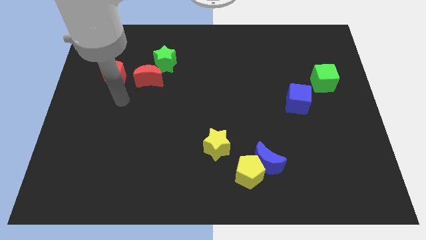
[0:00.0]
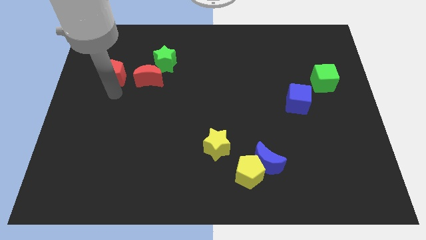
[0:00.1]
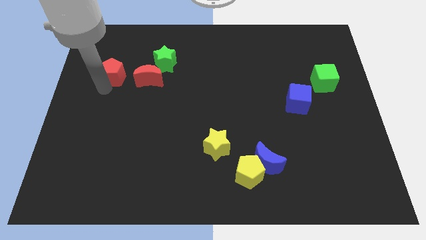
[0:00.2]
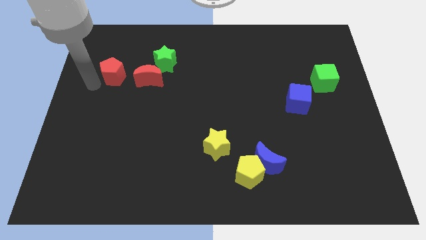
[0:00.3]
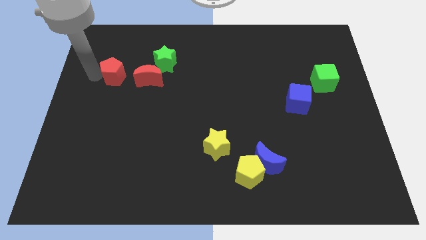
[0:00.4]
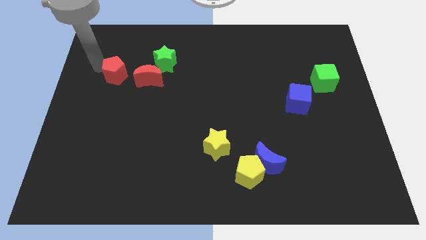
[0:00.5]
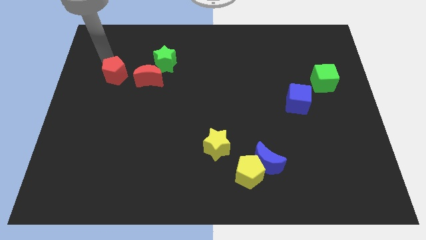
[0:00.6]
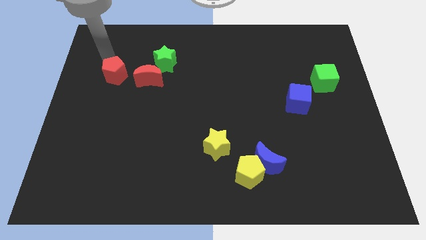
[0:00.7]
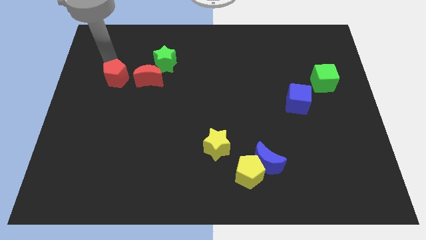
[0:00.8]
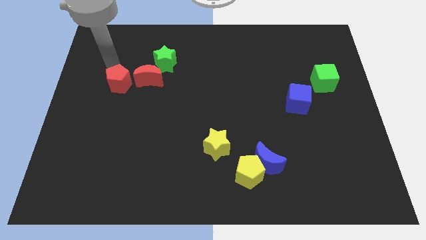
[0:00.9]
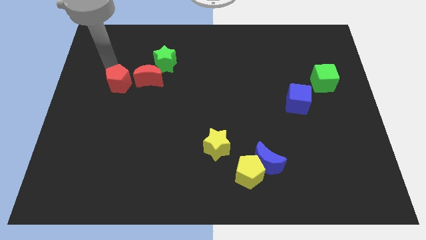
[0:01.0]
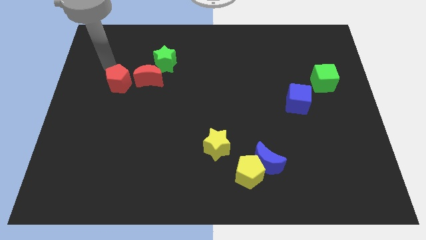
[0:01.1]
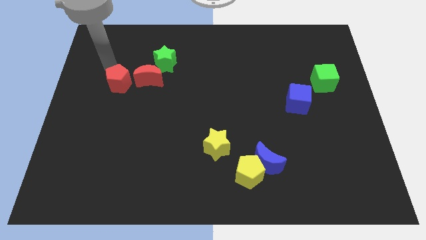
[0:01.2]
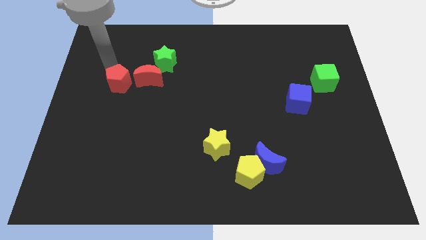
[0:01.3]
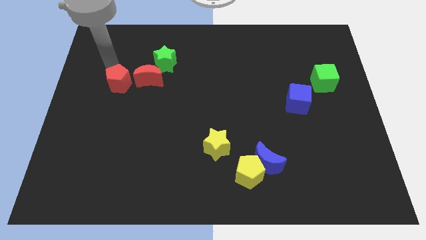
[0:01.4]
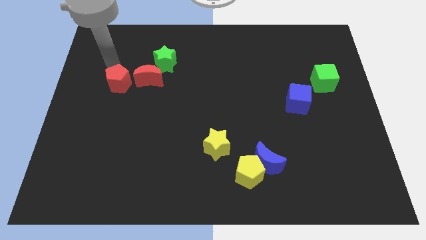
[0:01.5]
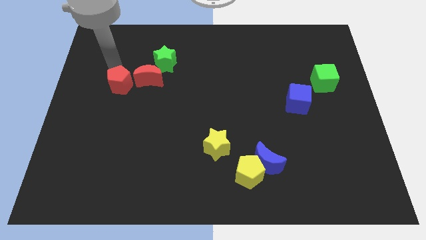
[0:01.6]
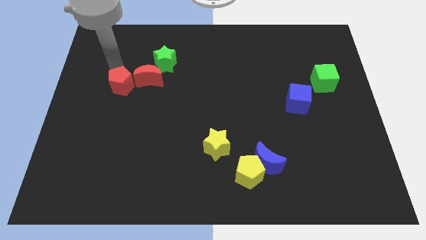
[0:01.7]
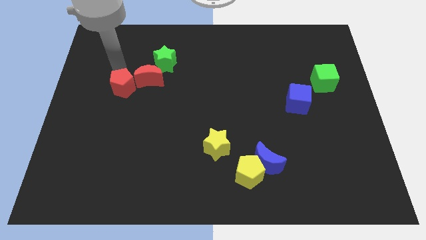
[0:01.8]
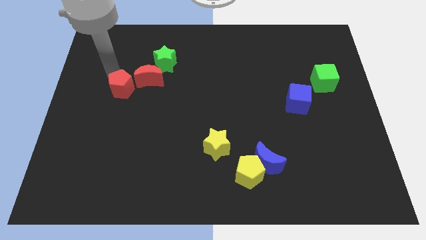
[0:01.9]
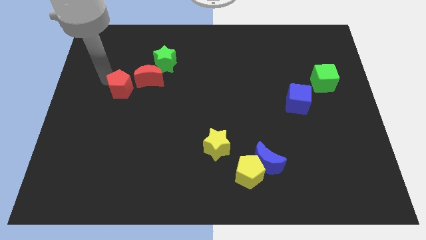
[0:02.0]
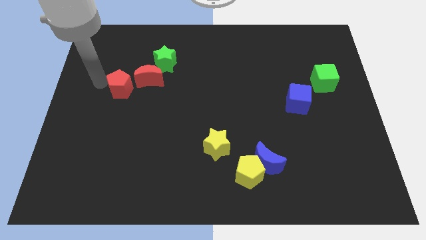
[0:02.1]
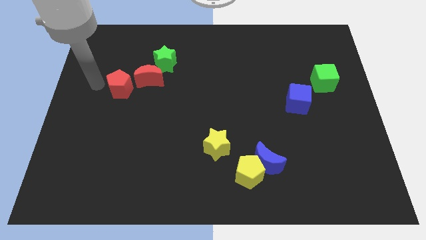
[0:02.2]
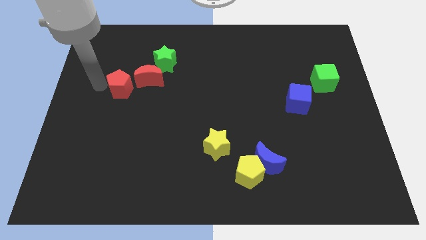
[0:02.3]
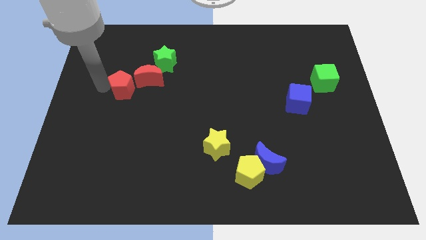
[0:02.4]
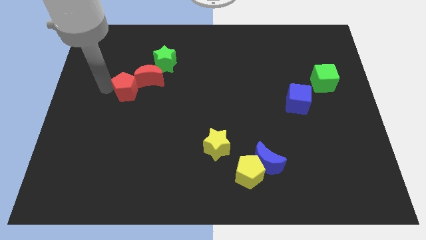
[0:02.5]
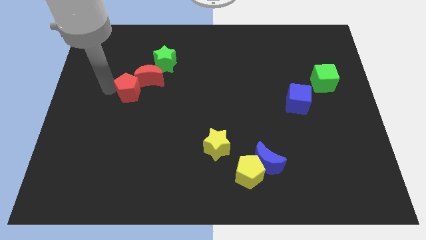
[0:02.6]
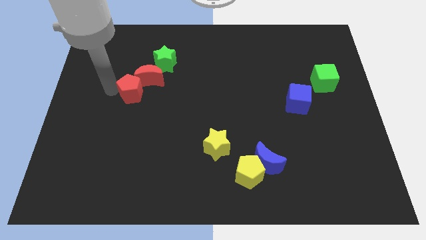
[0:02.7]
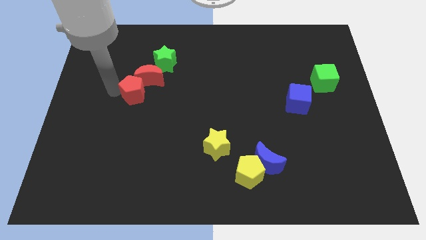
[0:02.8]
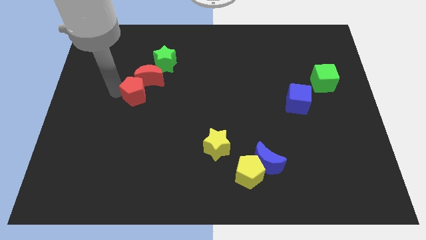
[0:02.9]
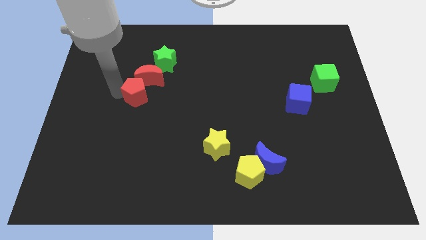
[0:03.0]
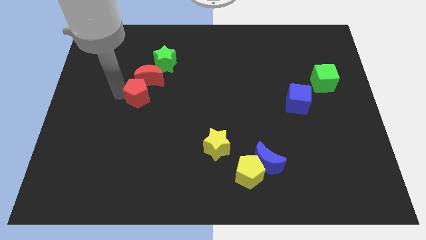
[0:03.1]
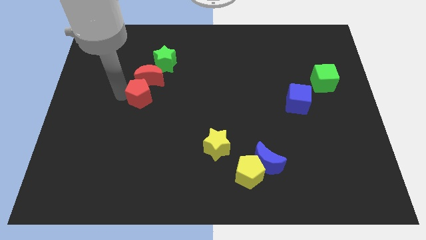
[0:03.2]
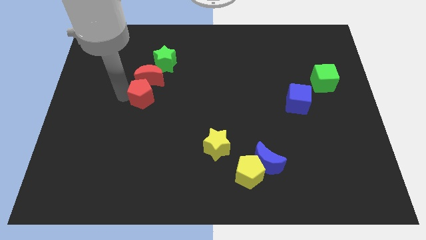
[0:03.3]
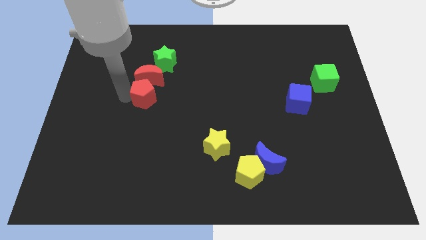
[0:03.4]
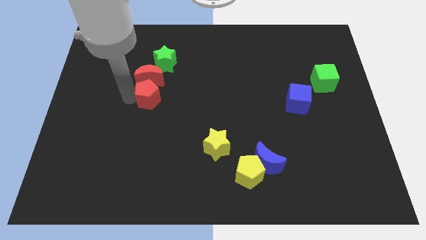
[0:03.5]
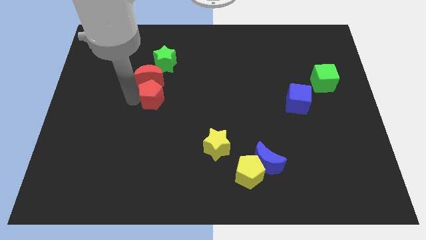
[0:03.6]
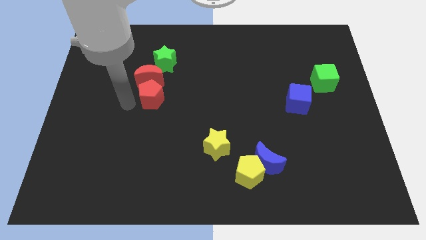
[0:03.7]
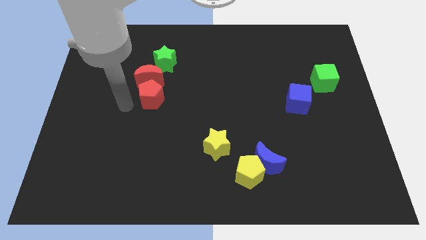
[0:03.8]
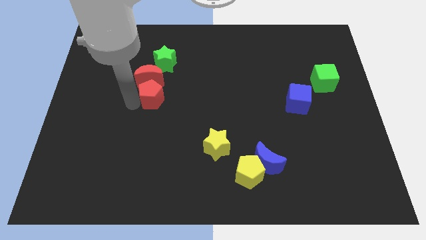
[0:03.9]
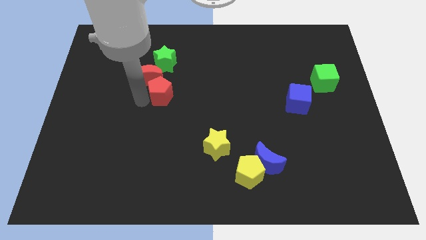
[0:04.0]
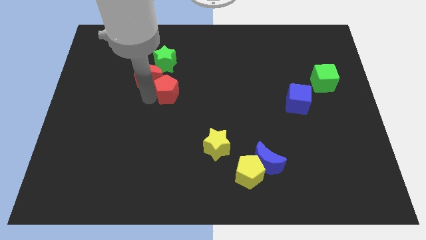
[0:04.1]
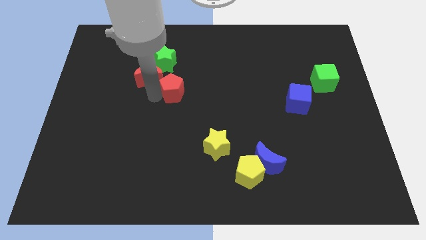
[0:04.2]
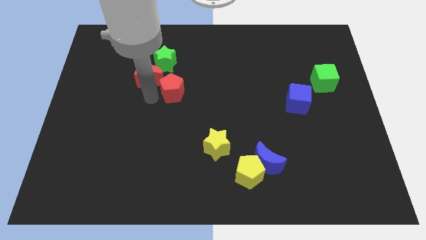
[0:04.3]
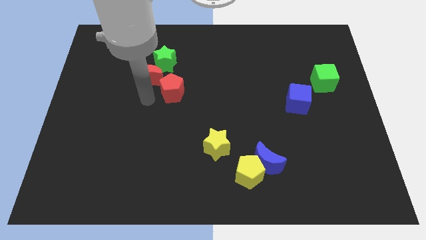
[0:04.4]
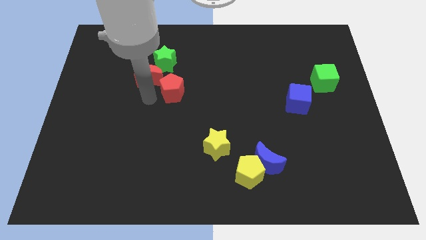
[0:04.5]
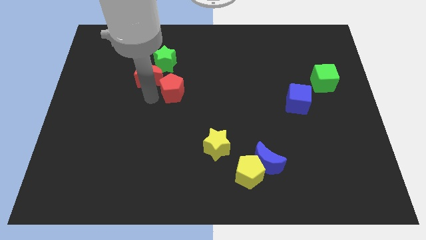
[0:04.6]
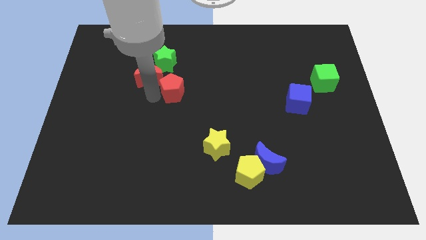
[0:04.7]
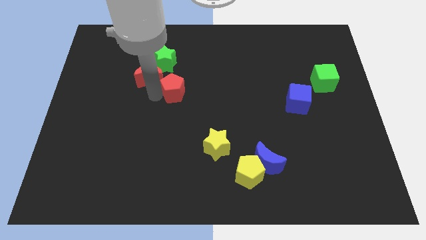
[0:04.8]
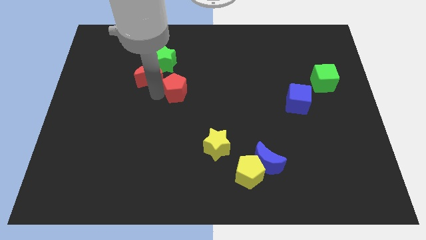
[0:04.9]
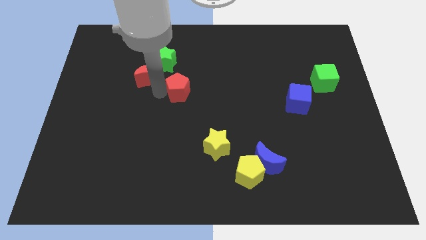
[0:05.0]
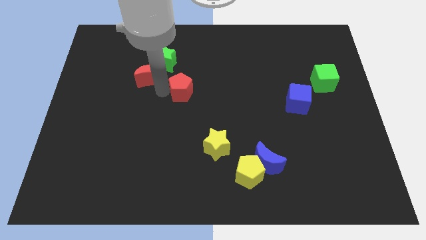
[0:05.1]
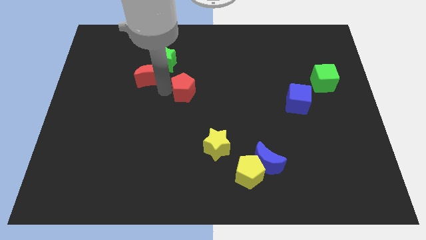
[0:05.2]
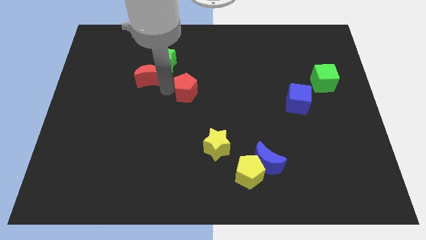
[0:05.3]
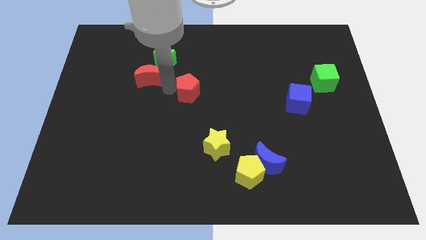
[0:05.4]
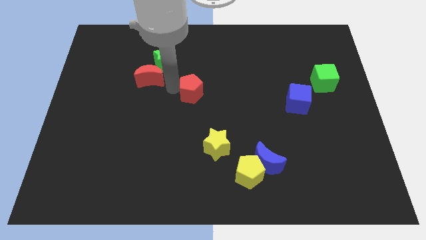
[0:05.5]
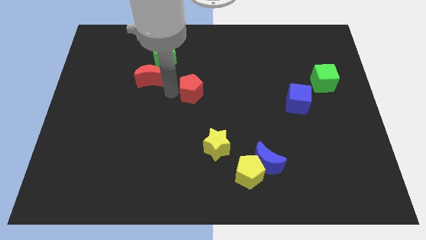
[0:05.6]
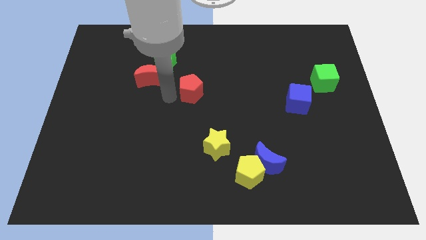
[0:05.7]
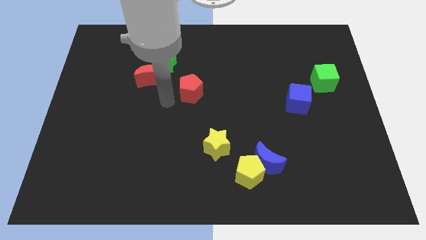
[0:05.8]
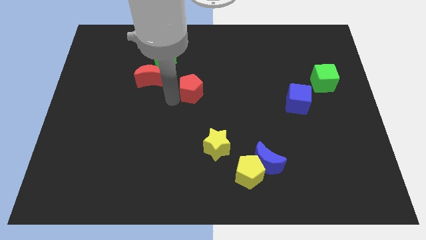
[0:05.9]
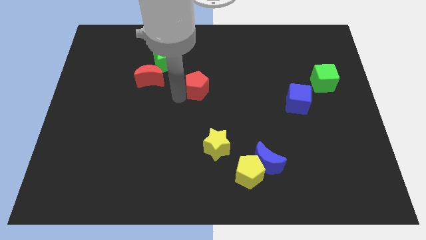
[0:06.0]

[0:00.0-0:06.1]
push the red pentagon to the right

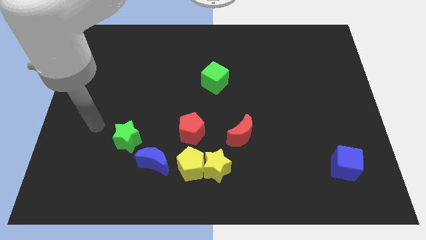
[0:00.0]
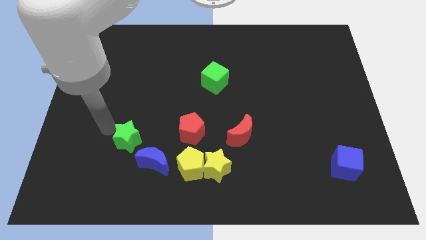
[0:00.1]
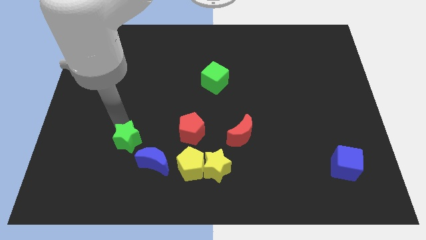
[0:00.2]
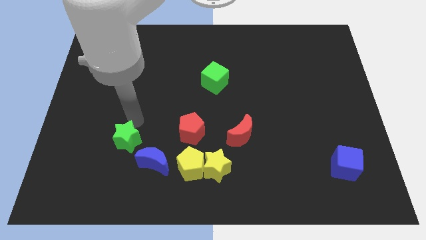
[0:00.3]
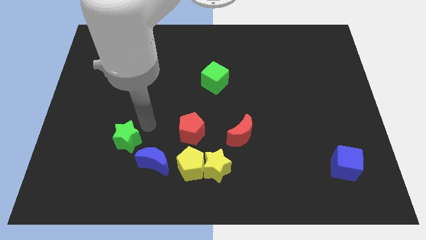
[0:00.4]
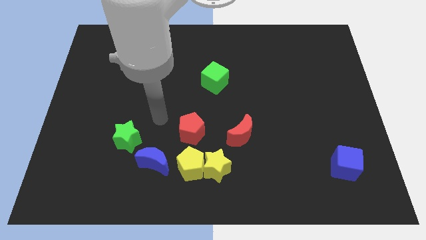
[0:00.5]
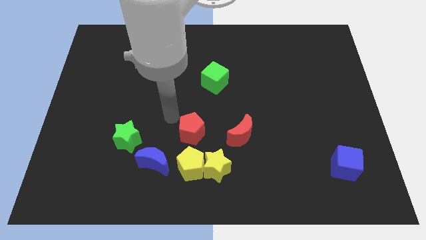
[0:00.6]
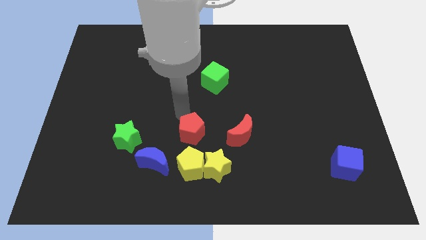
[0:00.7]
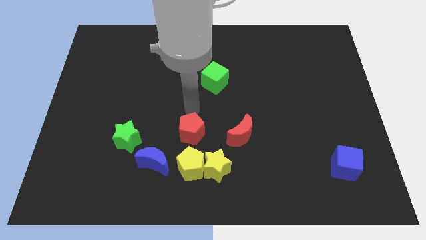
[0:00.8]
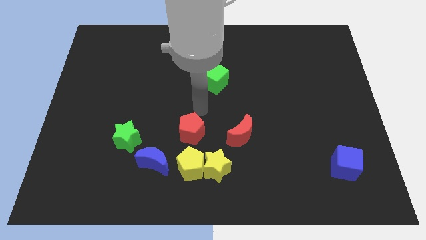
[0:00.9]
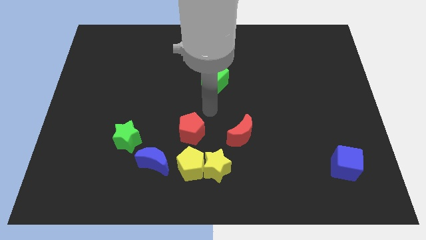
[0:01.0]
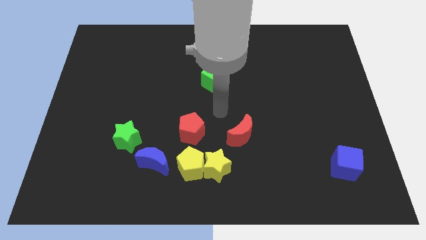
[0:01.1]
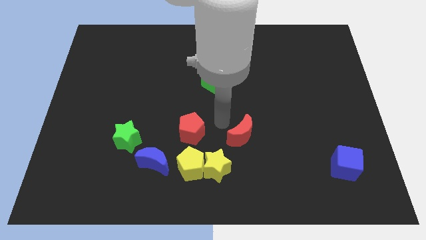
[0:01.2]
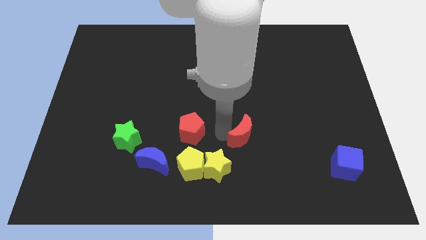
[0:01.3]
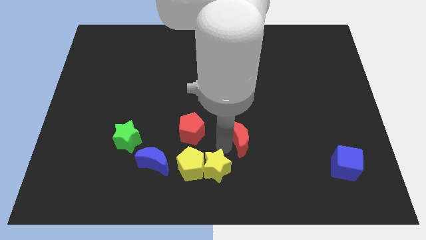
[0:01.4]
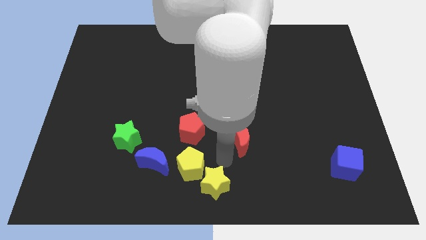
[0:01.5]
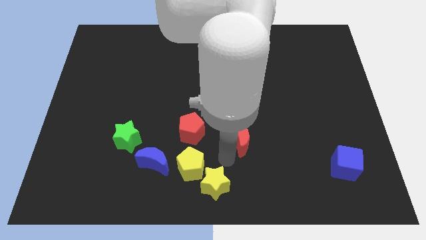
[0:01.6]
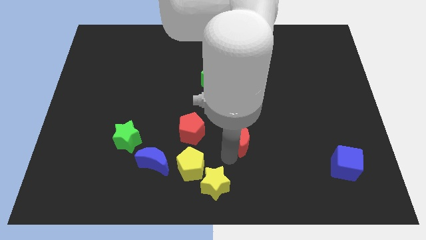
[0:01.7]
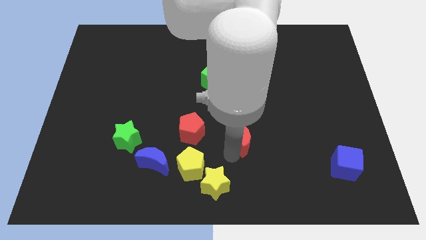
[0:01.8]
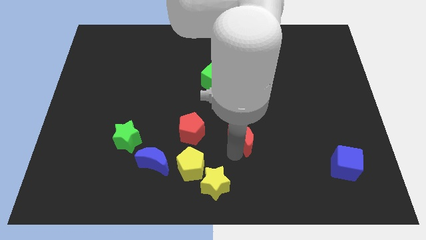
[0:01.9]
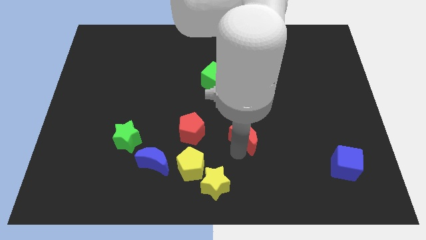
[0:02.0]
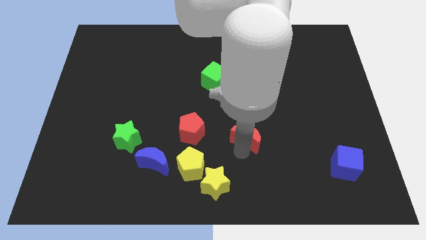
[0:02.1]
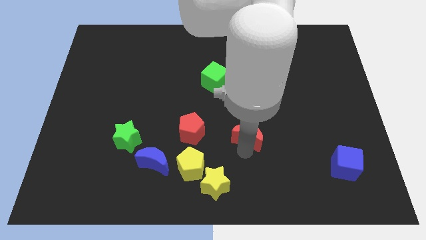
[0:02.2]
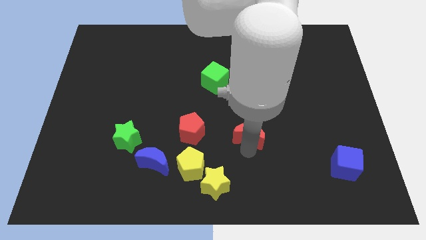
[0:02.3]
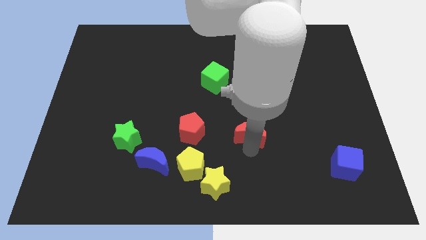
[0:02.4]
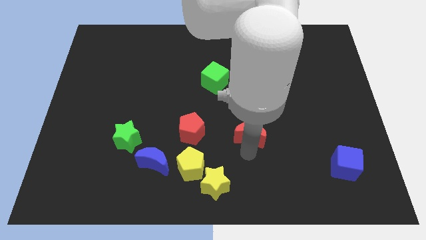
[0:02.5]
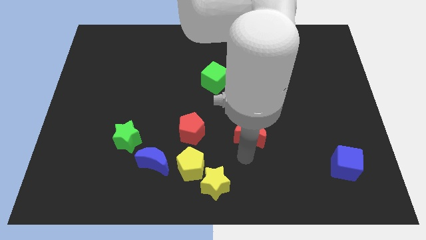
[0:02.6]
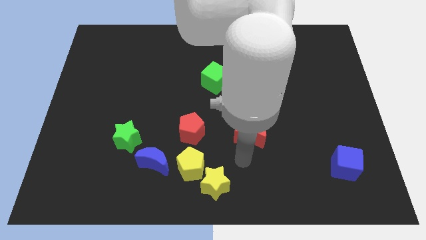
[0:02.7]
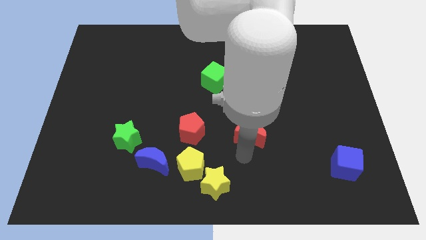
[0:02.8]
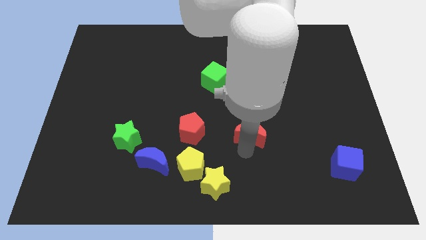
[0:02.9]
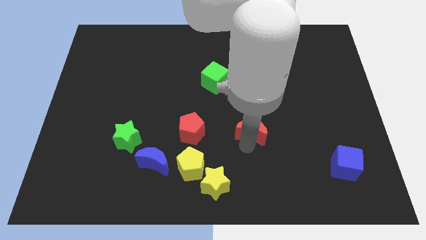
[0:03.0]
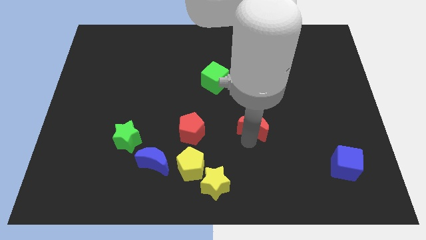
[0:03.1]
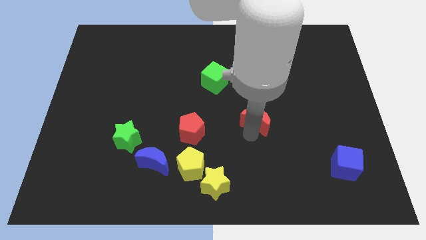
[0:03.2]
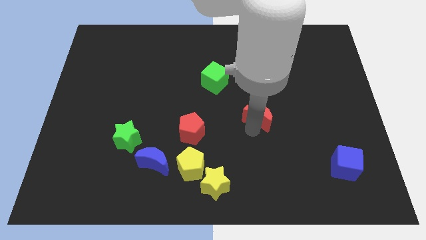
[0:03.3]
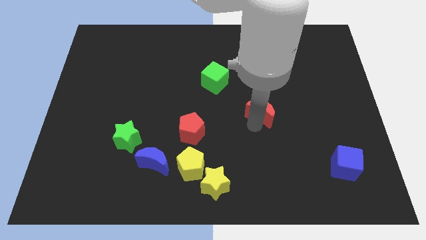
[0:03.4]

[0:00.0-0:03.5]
push the red moon up and right somewhat
